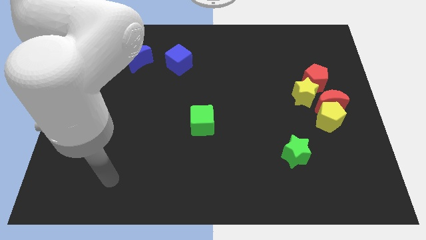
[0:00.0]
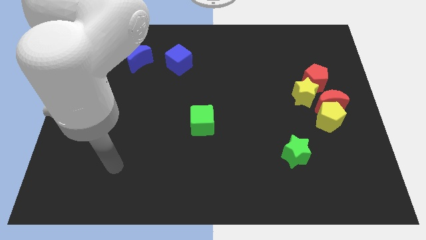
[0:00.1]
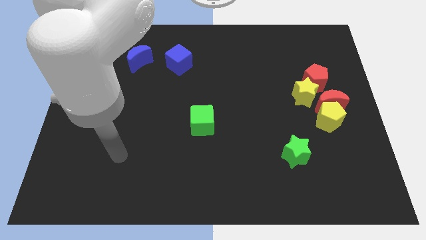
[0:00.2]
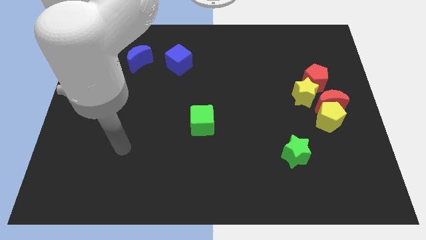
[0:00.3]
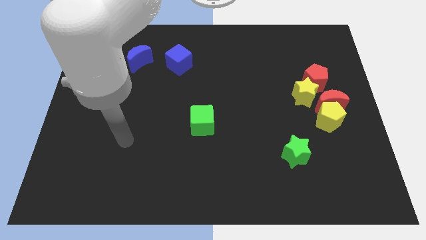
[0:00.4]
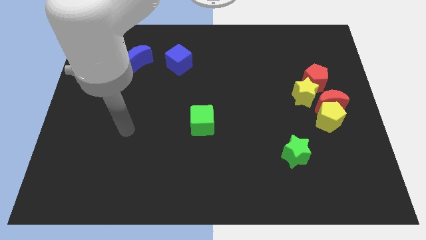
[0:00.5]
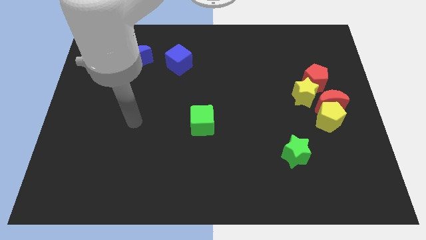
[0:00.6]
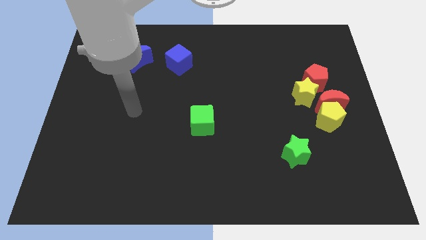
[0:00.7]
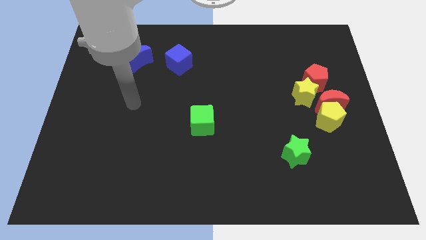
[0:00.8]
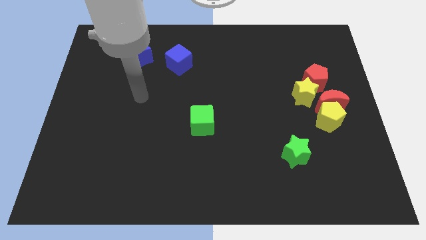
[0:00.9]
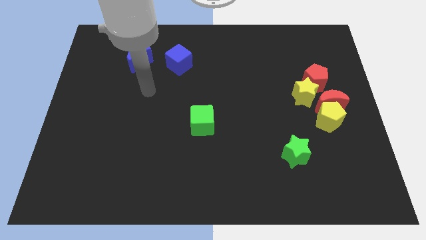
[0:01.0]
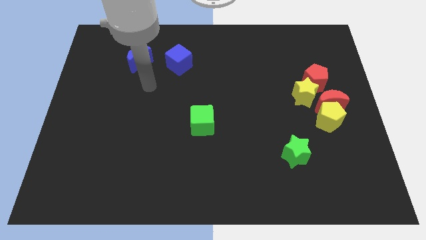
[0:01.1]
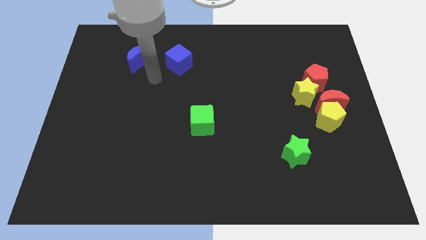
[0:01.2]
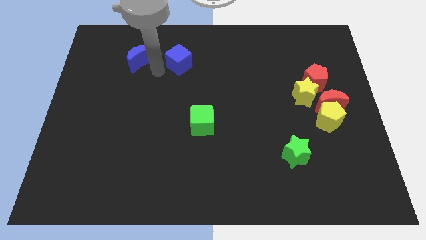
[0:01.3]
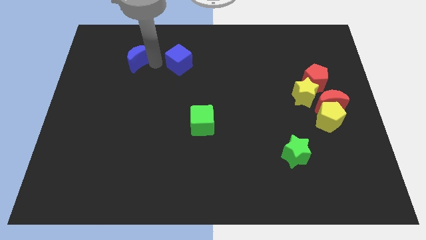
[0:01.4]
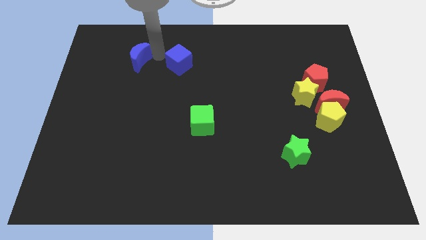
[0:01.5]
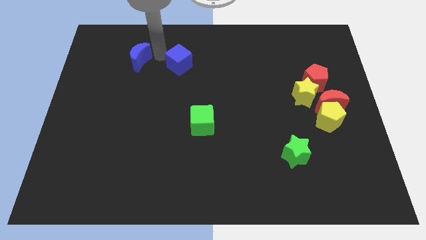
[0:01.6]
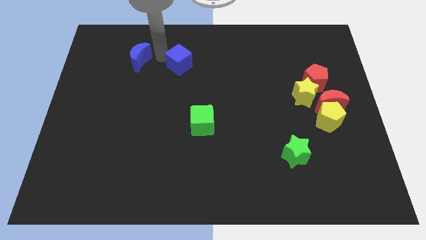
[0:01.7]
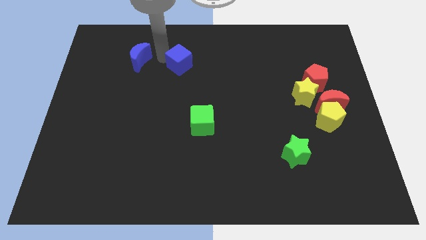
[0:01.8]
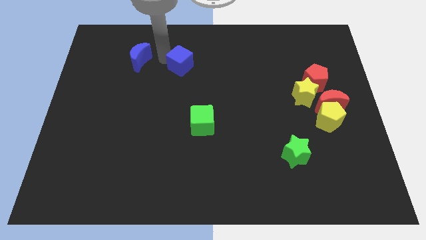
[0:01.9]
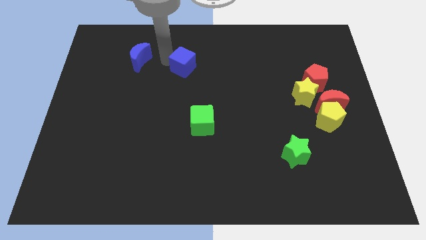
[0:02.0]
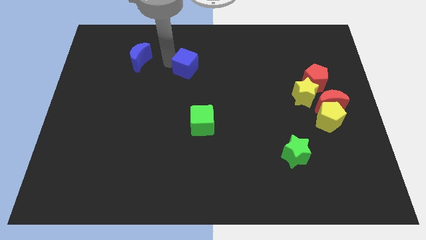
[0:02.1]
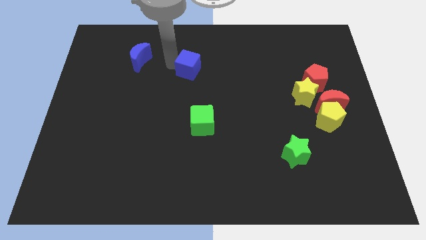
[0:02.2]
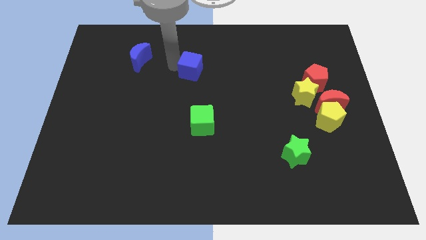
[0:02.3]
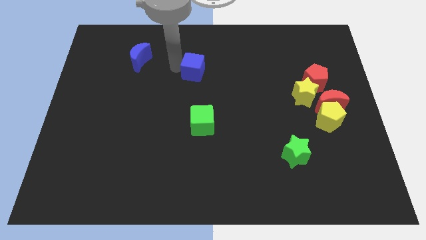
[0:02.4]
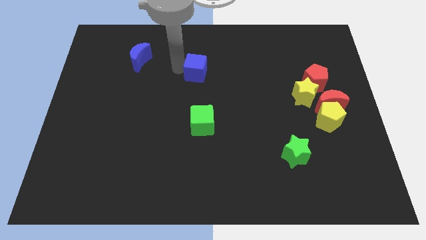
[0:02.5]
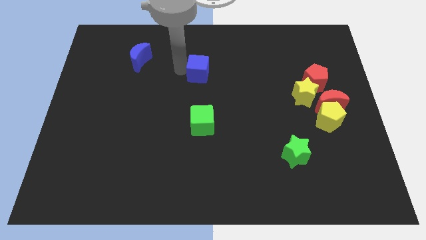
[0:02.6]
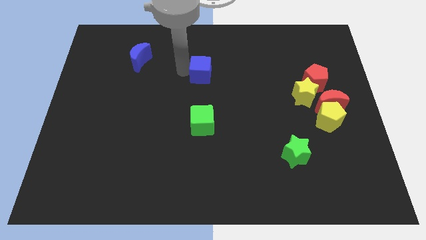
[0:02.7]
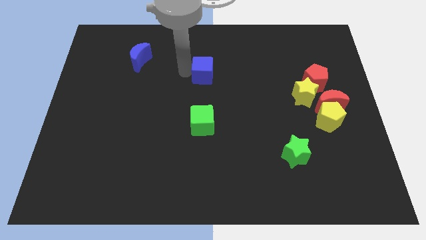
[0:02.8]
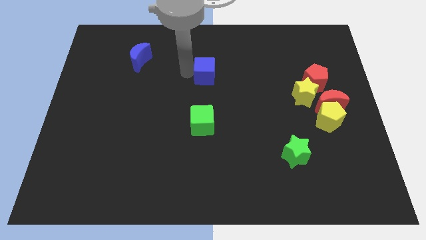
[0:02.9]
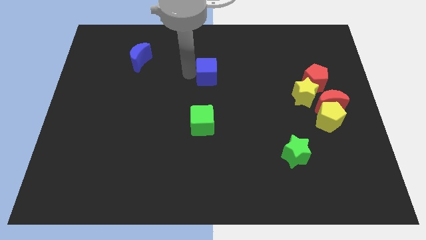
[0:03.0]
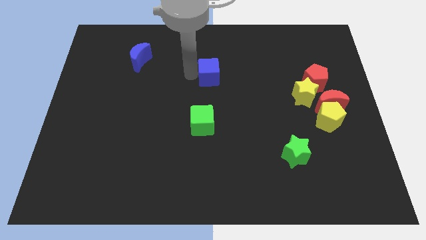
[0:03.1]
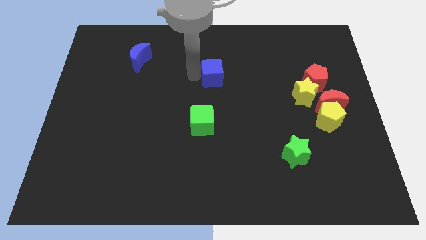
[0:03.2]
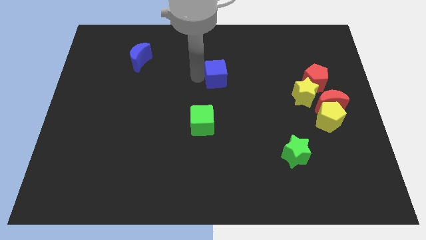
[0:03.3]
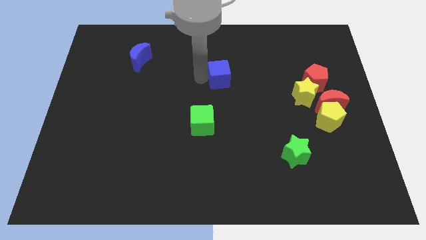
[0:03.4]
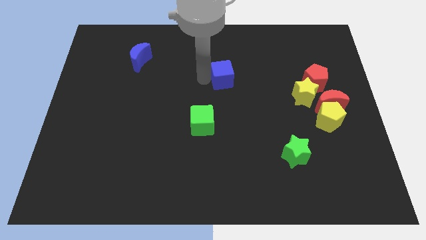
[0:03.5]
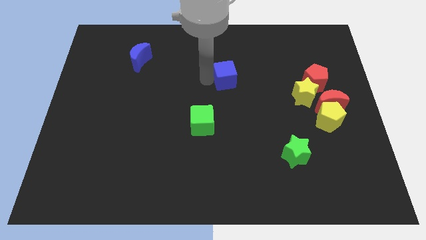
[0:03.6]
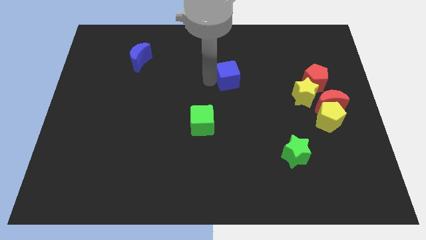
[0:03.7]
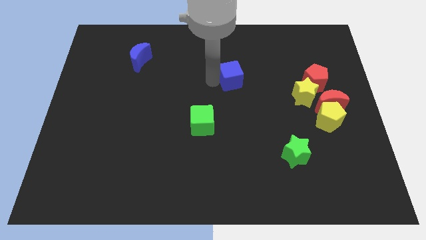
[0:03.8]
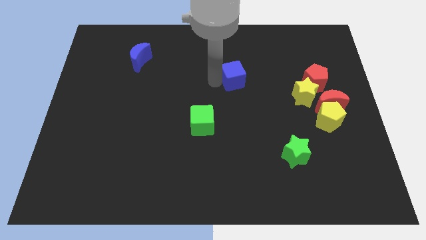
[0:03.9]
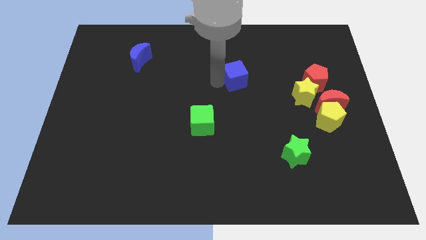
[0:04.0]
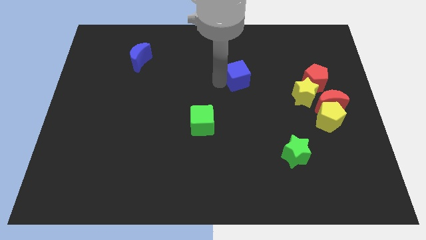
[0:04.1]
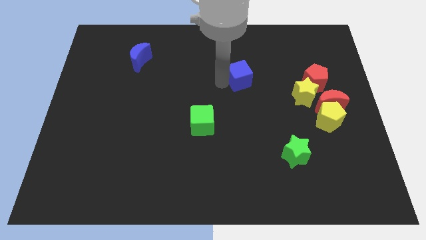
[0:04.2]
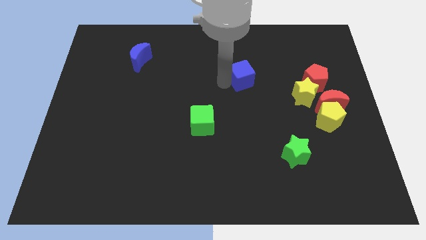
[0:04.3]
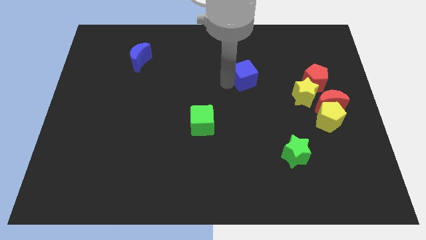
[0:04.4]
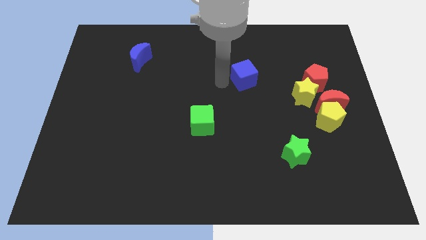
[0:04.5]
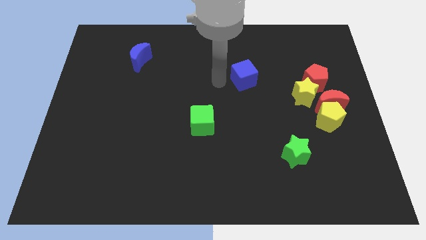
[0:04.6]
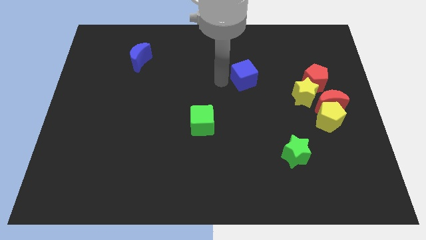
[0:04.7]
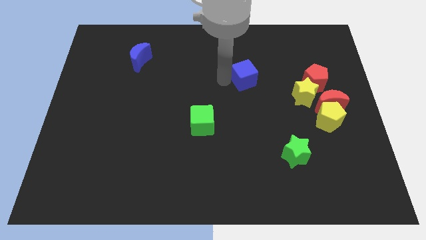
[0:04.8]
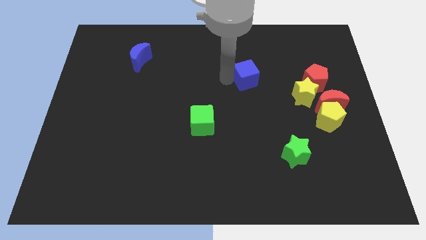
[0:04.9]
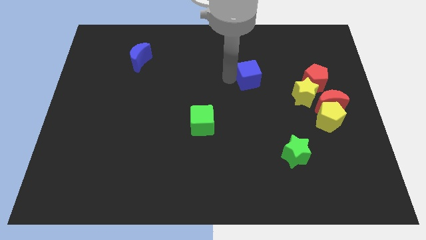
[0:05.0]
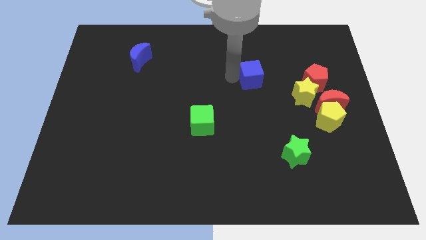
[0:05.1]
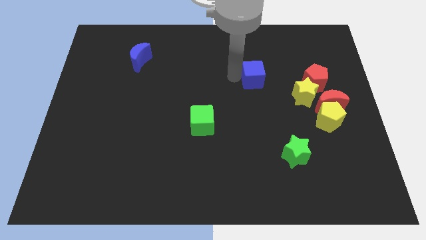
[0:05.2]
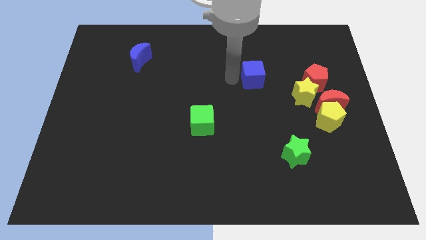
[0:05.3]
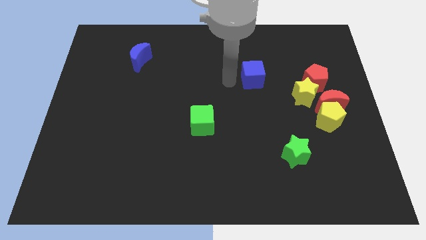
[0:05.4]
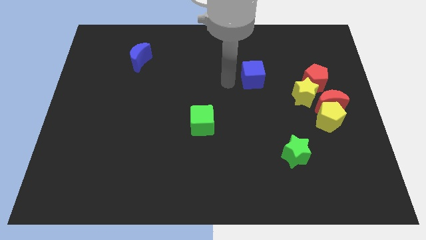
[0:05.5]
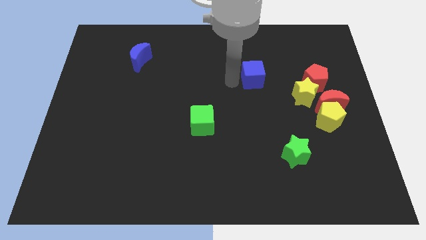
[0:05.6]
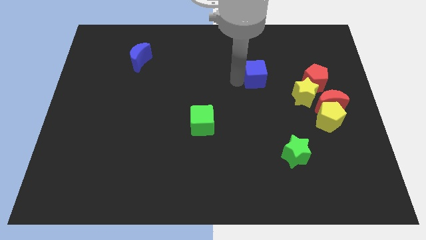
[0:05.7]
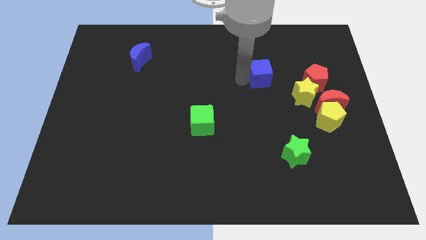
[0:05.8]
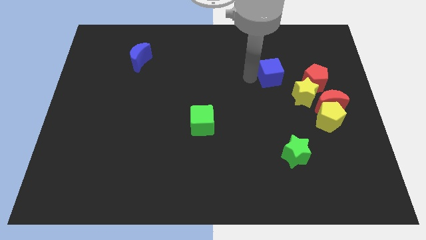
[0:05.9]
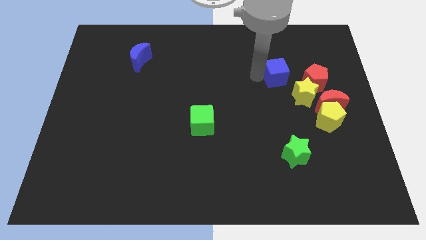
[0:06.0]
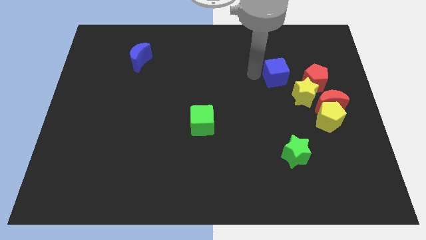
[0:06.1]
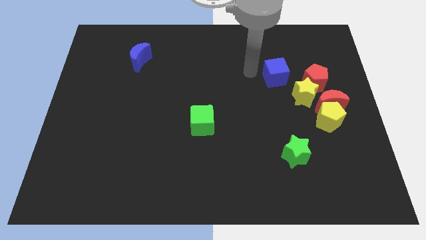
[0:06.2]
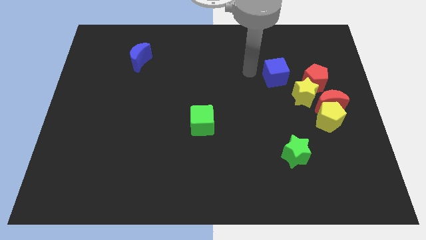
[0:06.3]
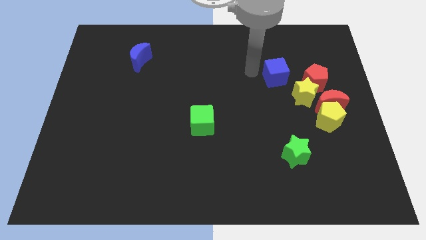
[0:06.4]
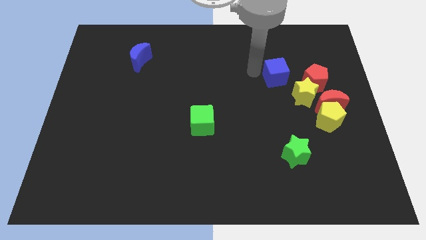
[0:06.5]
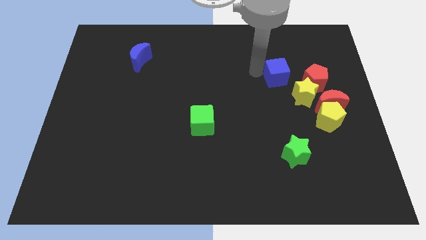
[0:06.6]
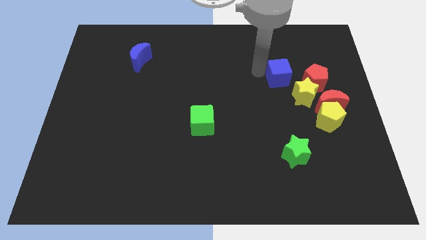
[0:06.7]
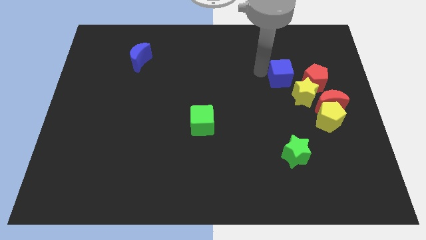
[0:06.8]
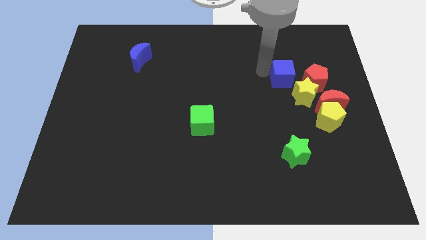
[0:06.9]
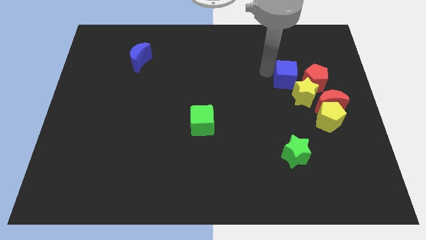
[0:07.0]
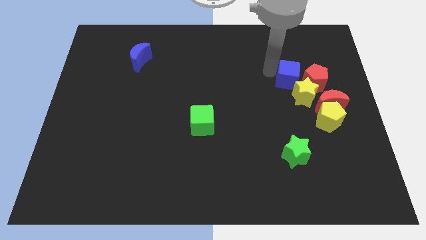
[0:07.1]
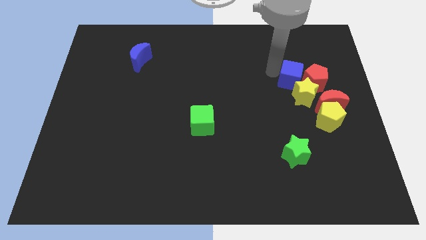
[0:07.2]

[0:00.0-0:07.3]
push the blue cube next to the red pentagon

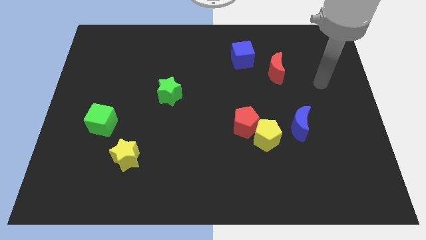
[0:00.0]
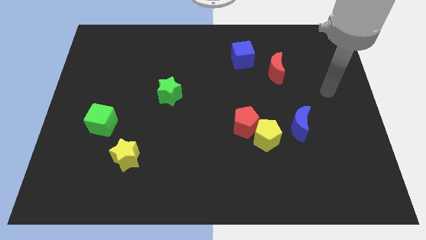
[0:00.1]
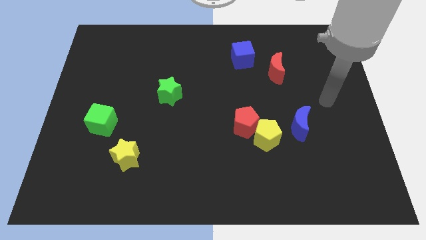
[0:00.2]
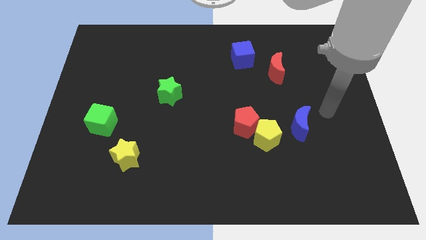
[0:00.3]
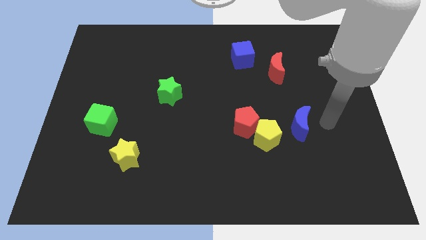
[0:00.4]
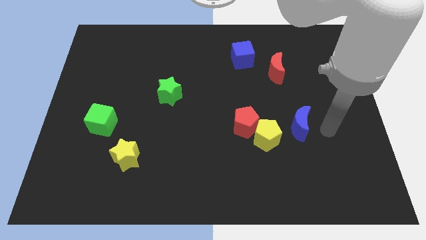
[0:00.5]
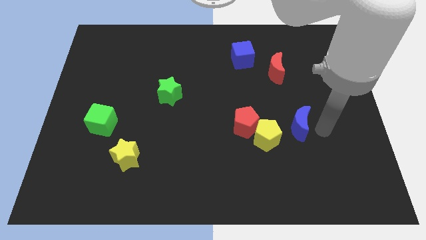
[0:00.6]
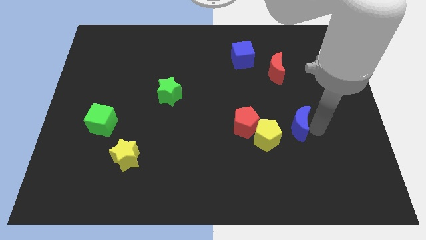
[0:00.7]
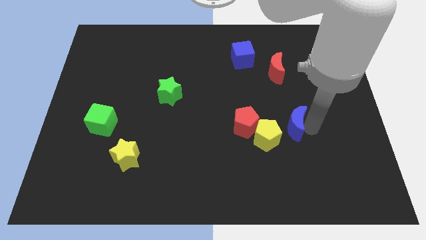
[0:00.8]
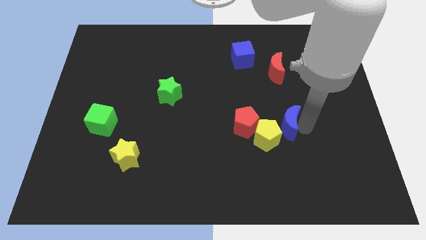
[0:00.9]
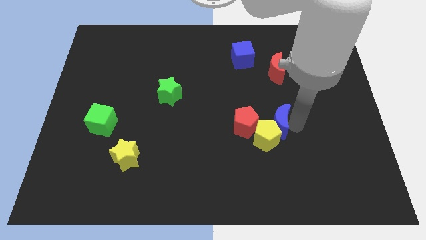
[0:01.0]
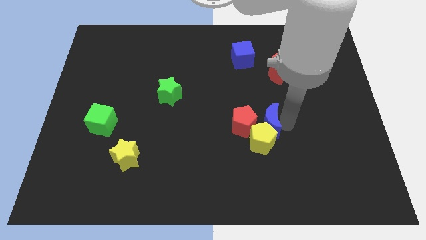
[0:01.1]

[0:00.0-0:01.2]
push the blue moon towards the red pentagon
